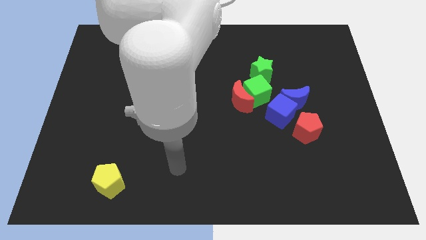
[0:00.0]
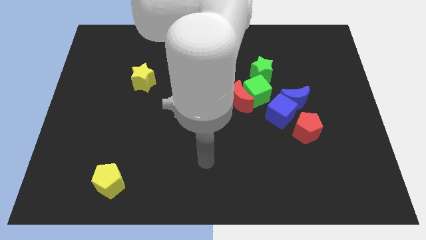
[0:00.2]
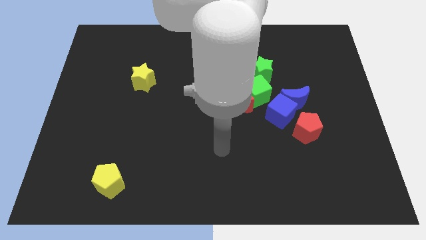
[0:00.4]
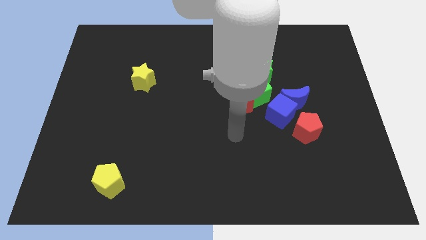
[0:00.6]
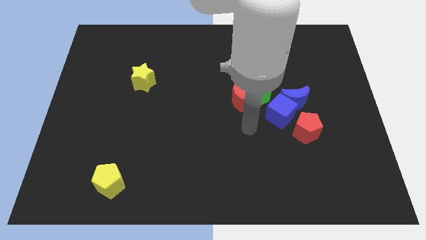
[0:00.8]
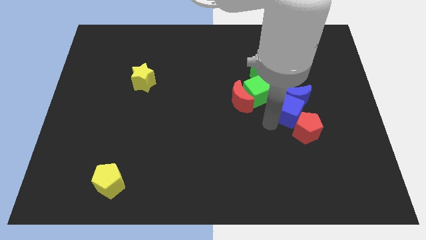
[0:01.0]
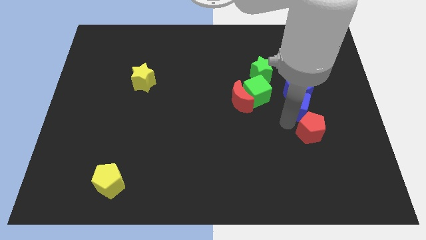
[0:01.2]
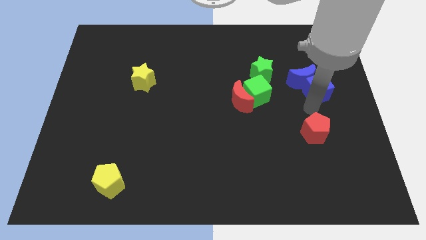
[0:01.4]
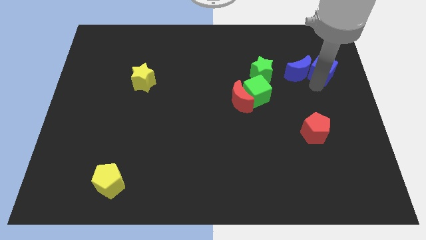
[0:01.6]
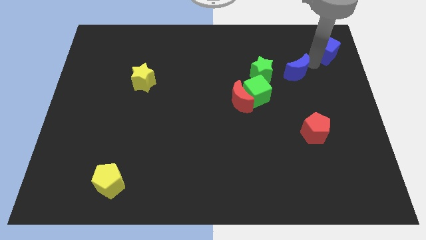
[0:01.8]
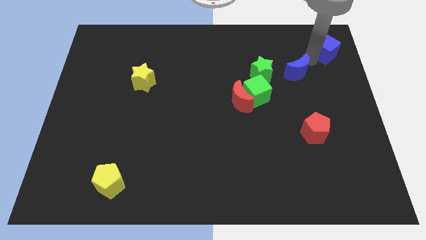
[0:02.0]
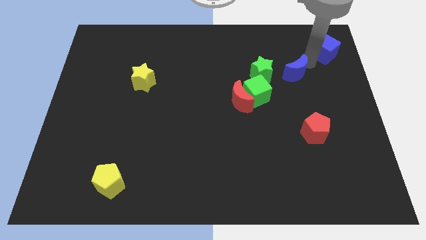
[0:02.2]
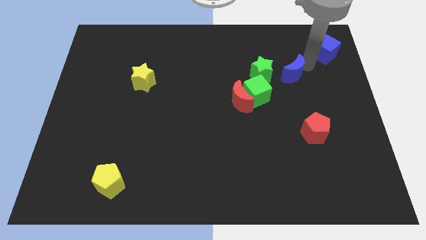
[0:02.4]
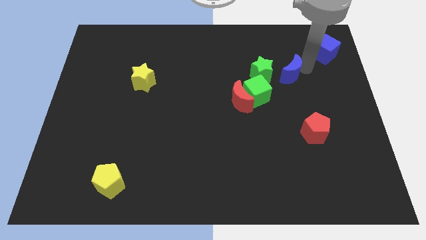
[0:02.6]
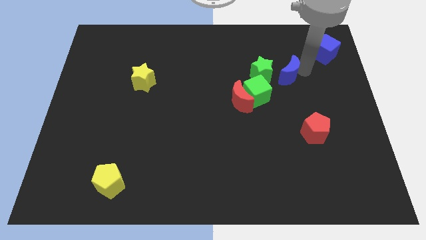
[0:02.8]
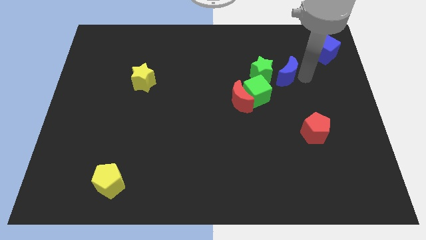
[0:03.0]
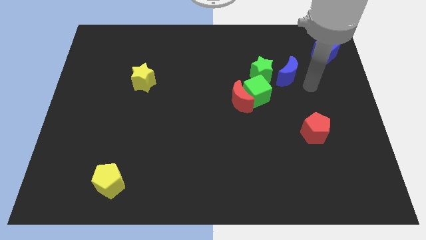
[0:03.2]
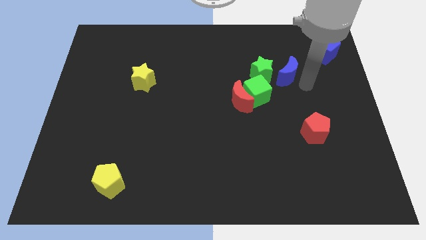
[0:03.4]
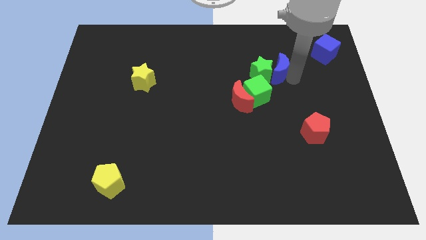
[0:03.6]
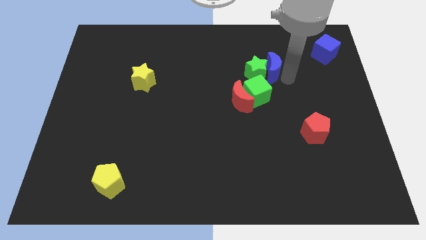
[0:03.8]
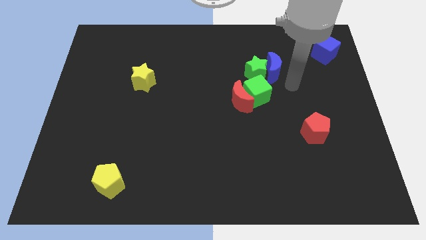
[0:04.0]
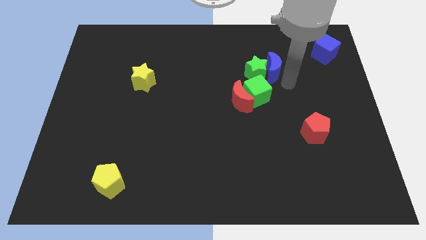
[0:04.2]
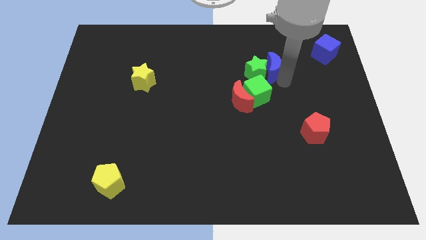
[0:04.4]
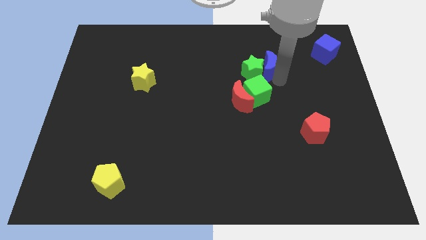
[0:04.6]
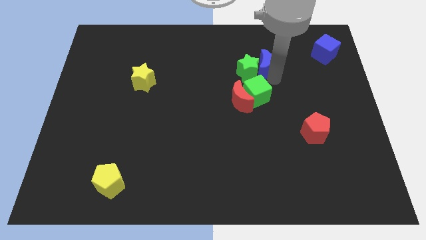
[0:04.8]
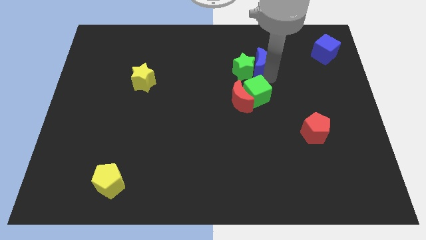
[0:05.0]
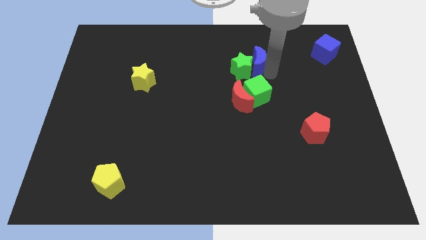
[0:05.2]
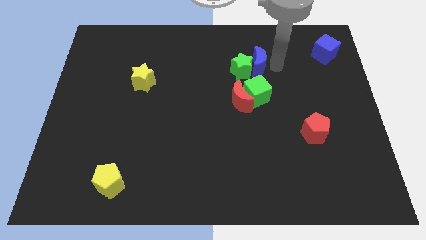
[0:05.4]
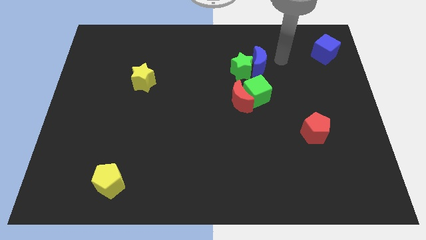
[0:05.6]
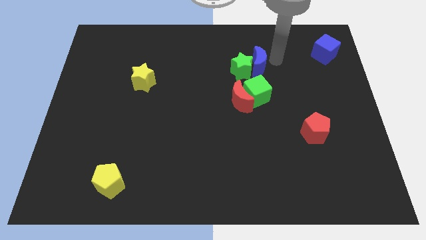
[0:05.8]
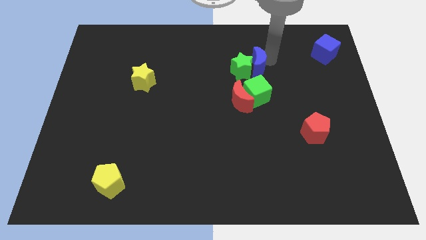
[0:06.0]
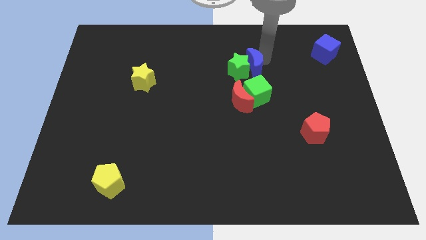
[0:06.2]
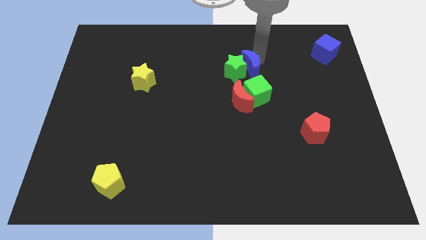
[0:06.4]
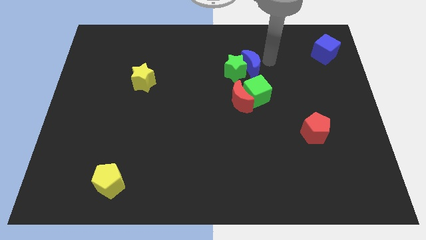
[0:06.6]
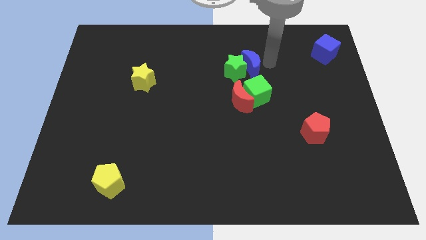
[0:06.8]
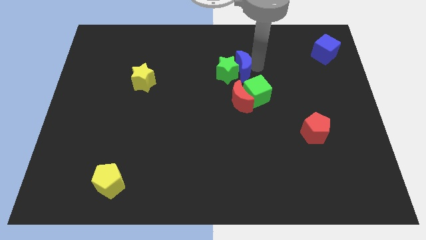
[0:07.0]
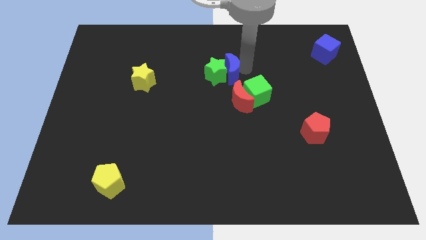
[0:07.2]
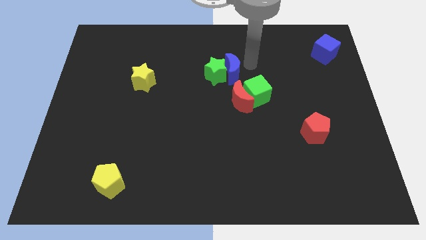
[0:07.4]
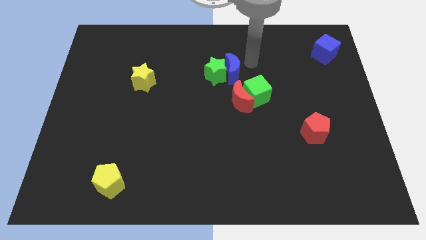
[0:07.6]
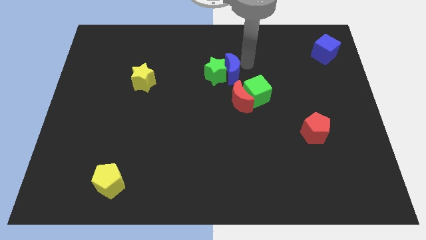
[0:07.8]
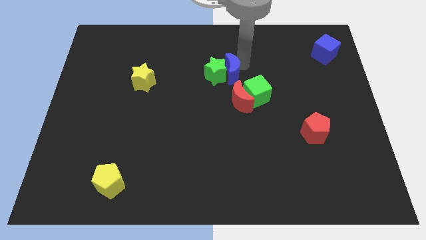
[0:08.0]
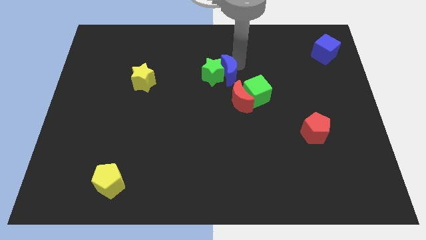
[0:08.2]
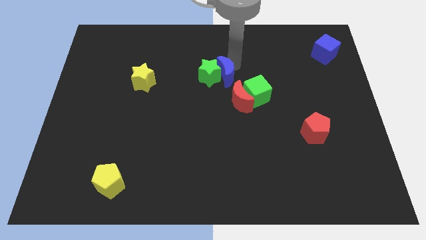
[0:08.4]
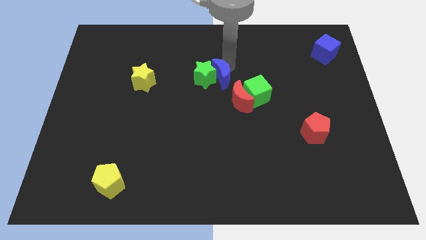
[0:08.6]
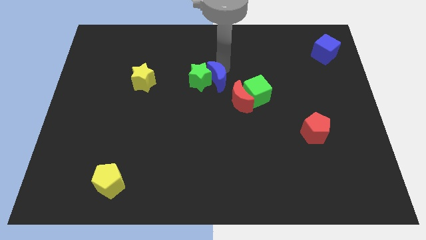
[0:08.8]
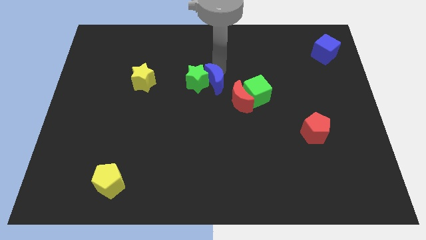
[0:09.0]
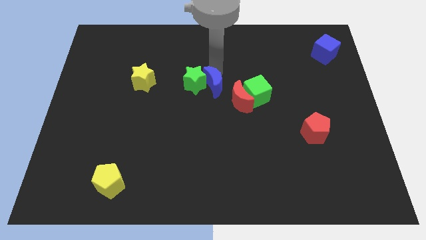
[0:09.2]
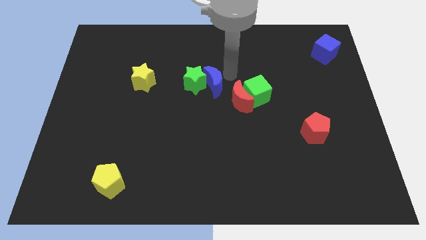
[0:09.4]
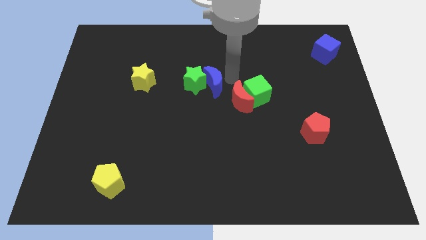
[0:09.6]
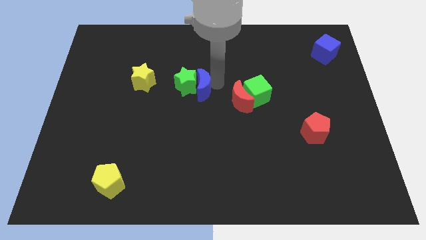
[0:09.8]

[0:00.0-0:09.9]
move the blue moon to the left

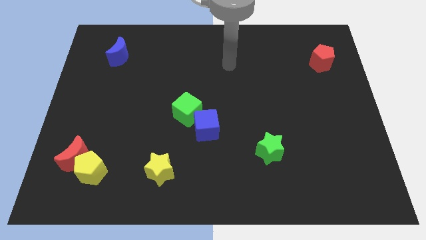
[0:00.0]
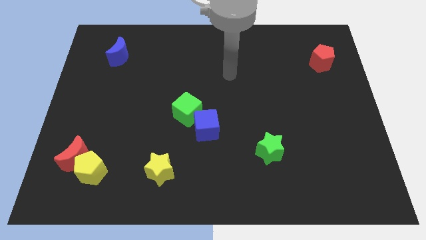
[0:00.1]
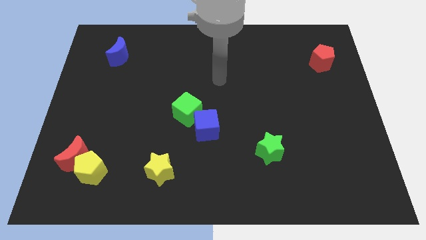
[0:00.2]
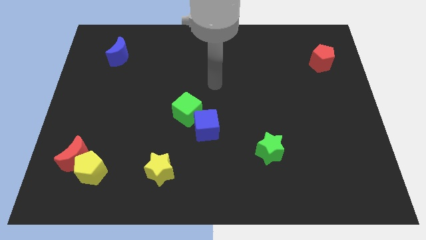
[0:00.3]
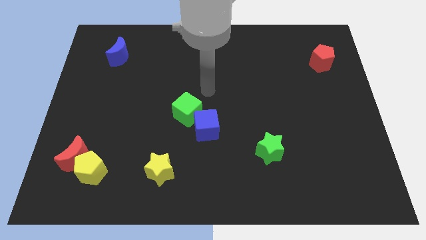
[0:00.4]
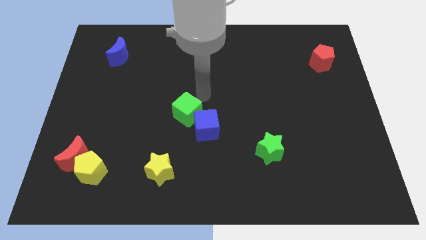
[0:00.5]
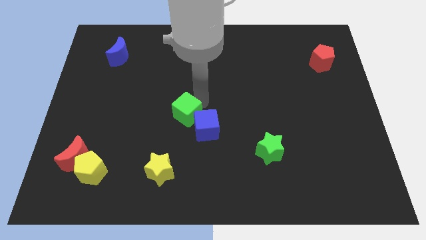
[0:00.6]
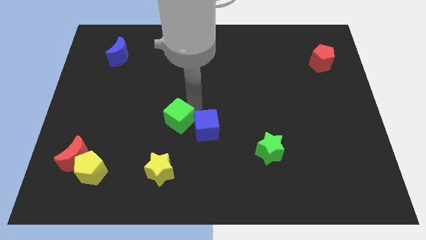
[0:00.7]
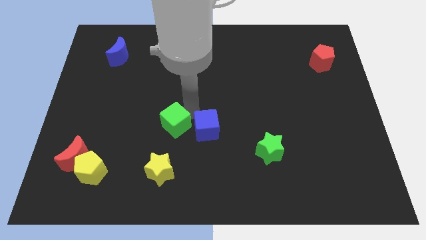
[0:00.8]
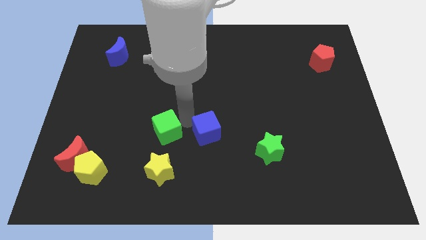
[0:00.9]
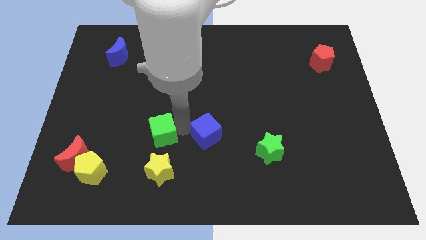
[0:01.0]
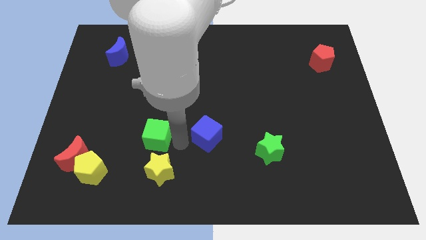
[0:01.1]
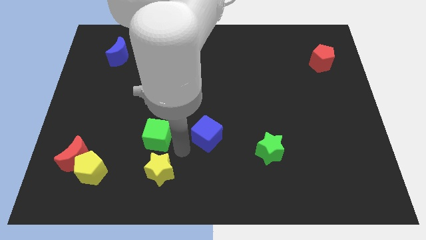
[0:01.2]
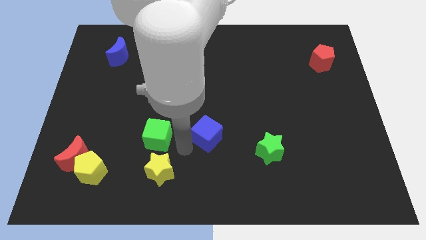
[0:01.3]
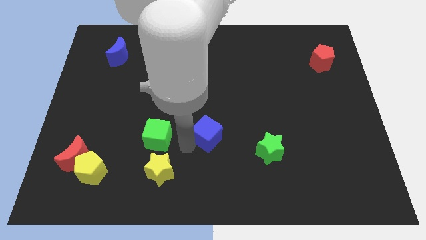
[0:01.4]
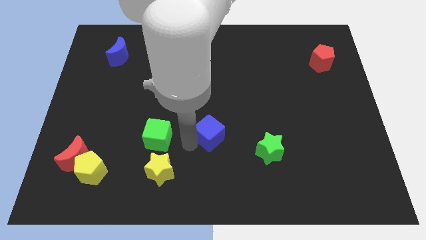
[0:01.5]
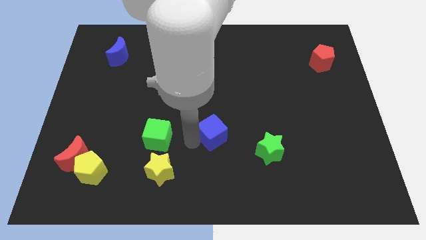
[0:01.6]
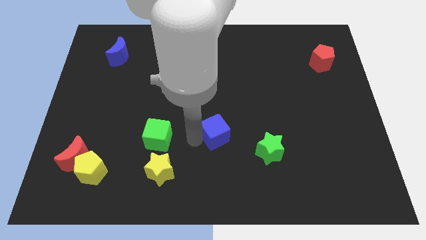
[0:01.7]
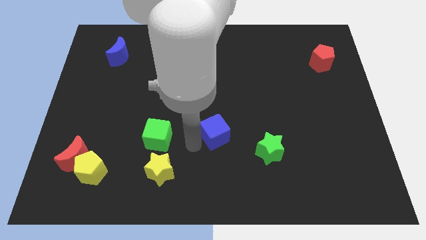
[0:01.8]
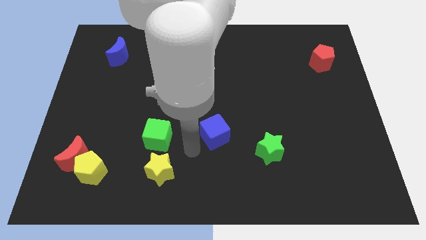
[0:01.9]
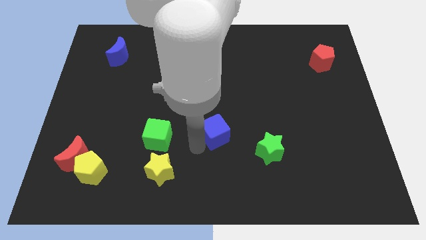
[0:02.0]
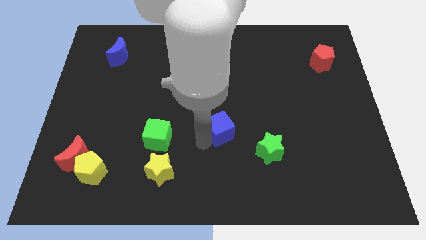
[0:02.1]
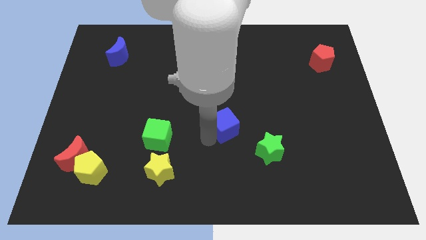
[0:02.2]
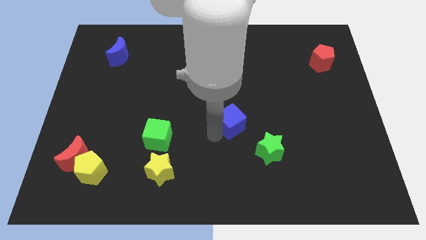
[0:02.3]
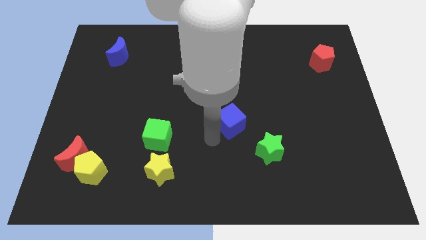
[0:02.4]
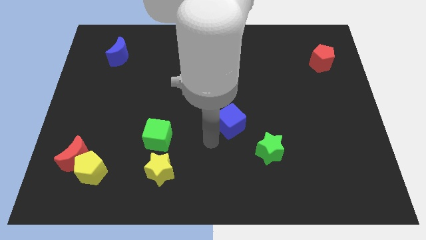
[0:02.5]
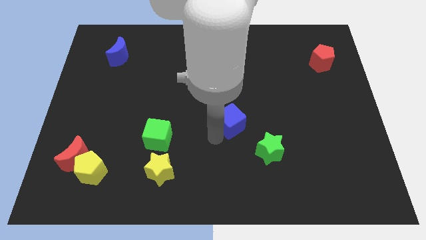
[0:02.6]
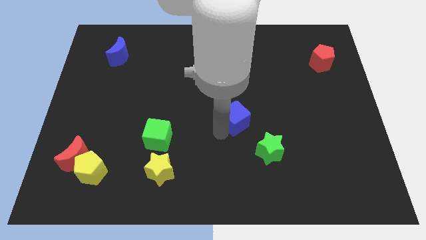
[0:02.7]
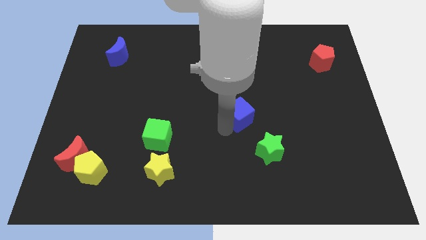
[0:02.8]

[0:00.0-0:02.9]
slightly slide the blue cube diagonally up and right

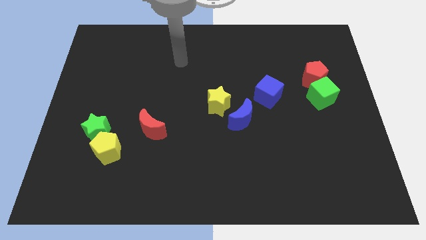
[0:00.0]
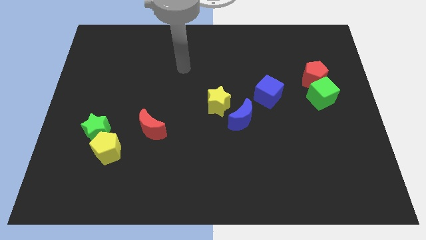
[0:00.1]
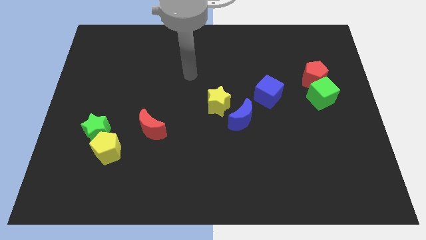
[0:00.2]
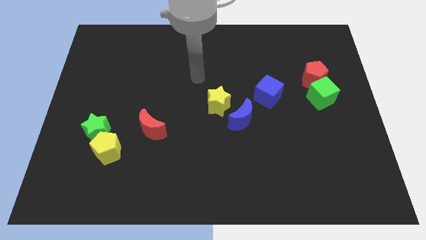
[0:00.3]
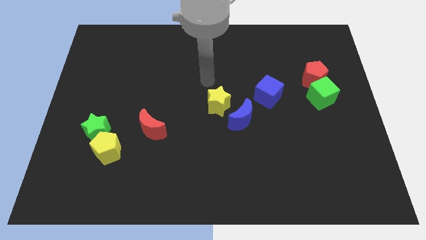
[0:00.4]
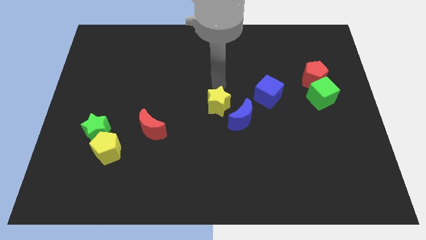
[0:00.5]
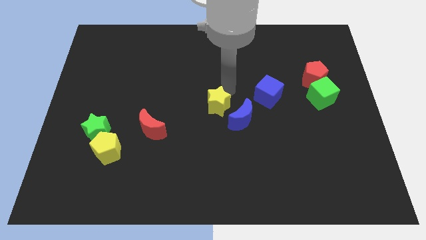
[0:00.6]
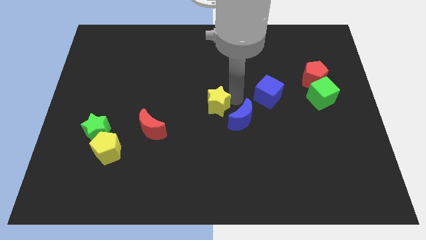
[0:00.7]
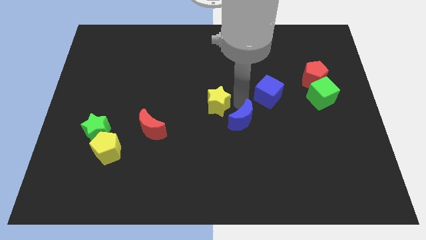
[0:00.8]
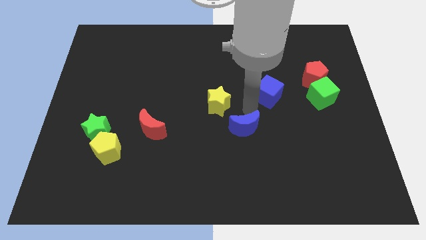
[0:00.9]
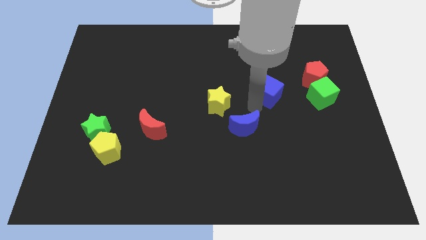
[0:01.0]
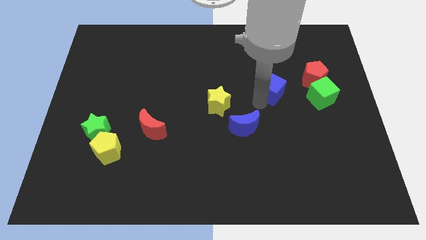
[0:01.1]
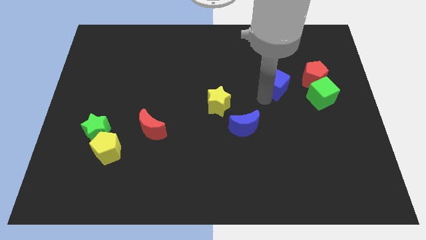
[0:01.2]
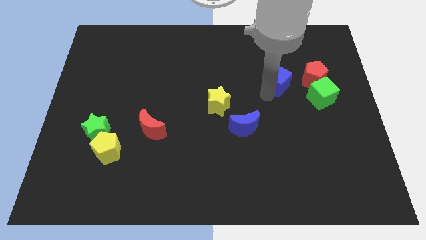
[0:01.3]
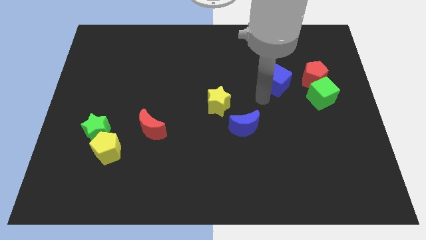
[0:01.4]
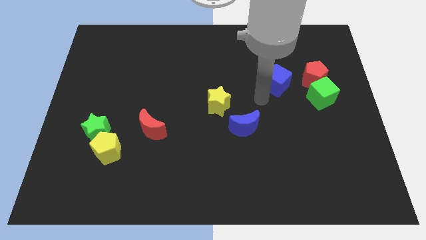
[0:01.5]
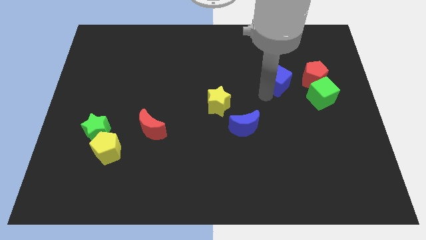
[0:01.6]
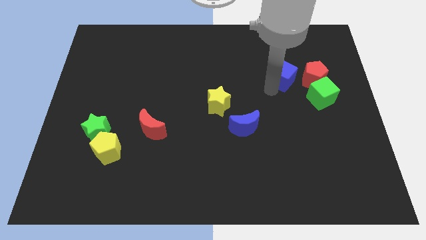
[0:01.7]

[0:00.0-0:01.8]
slightly slide the blue cube upwards and then right
